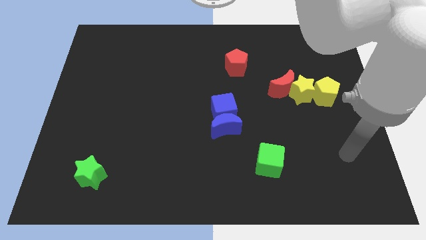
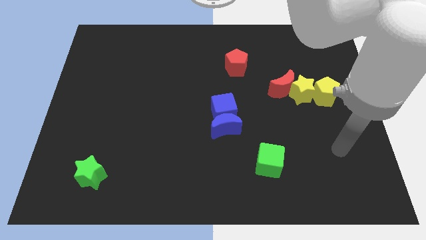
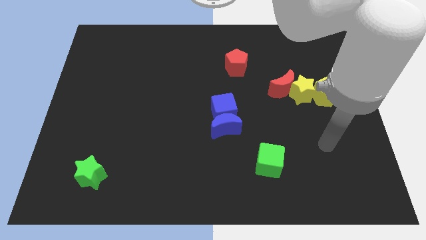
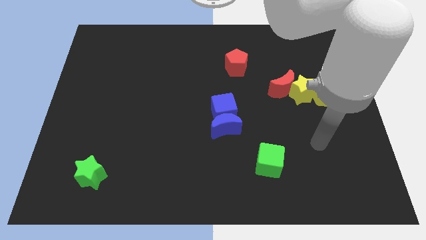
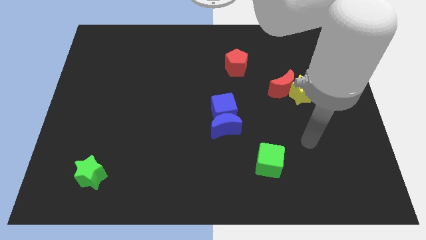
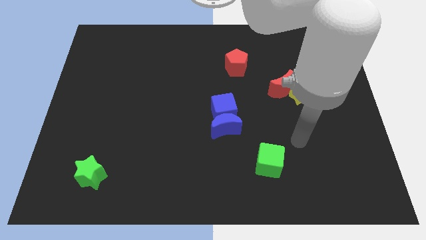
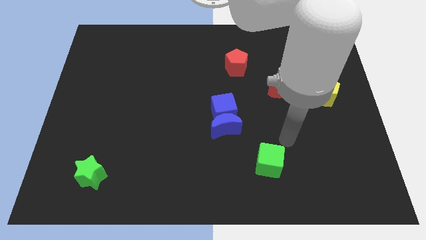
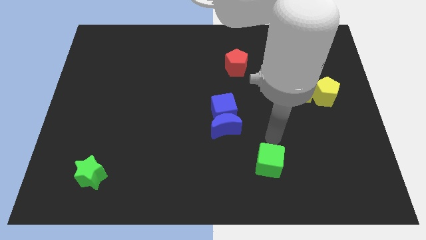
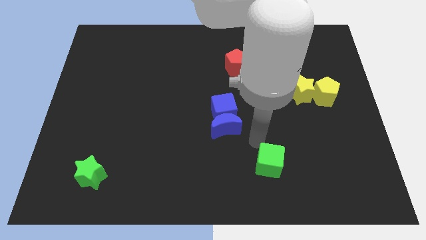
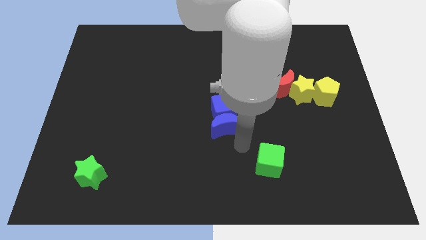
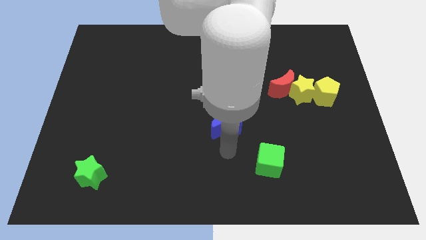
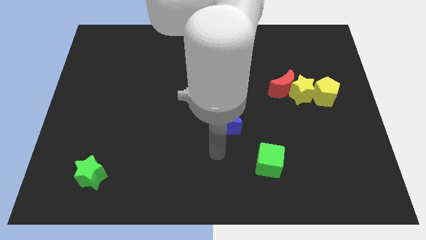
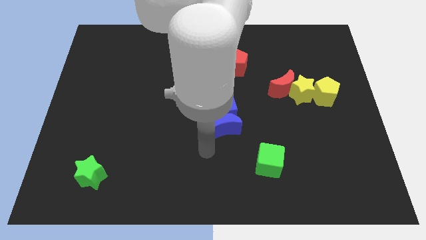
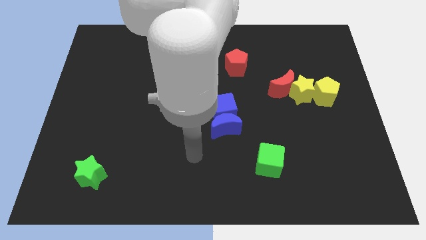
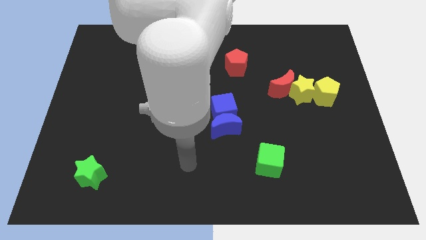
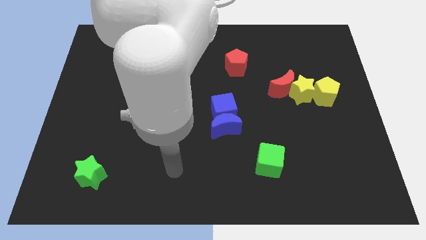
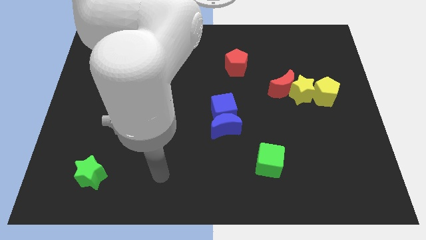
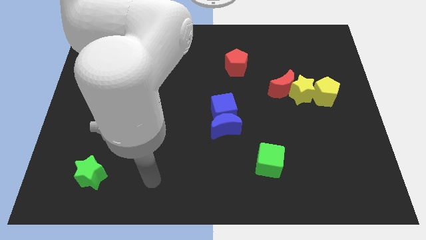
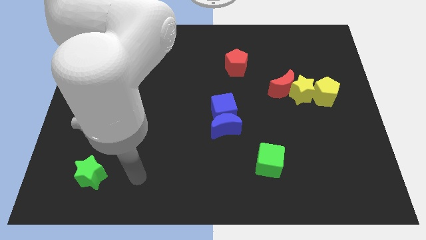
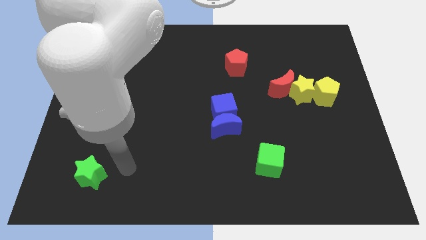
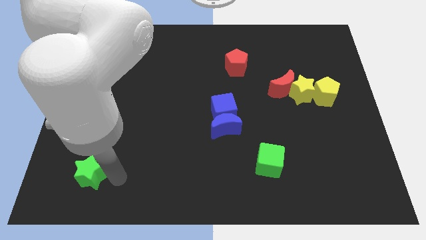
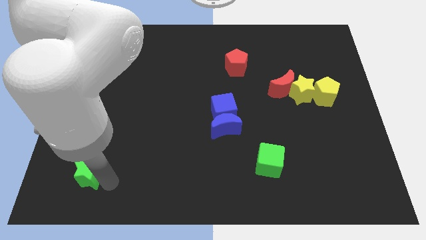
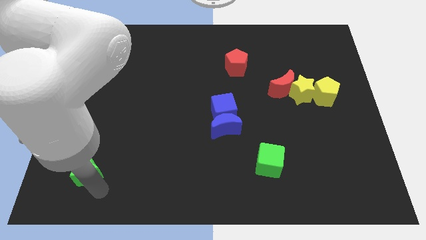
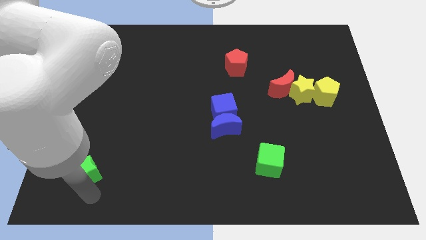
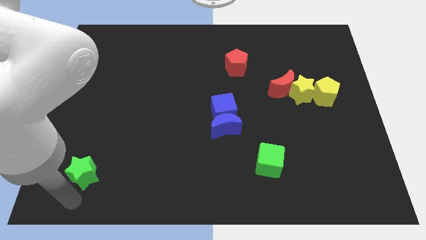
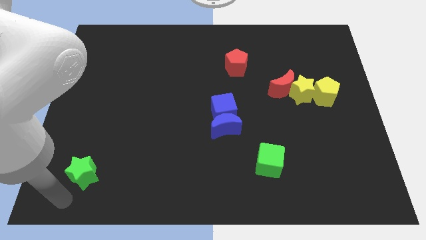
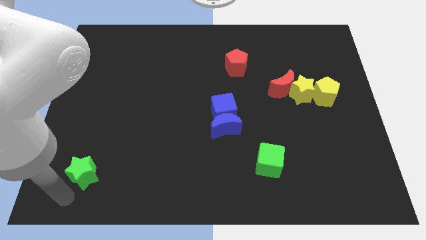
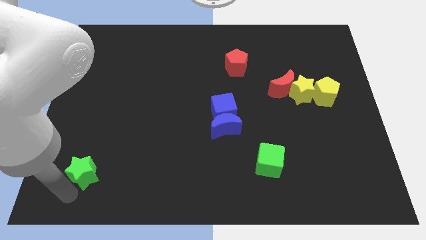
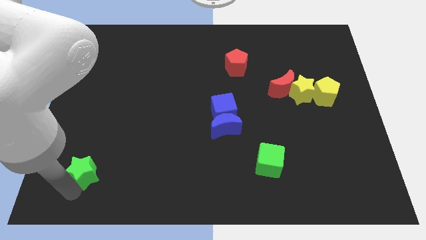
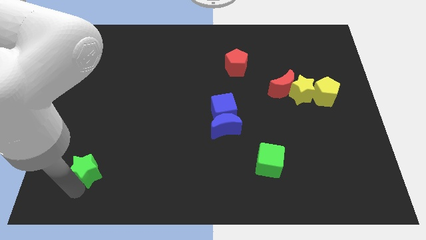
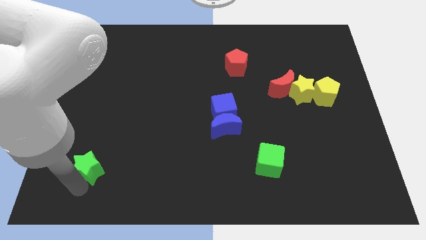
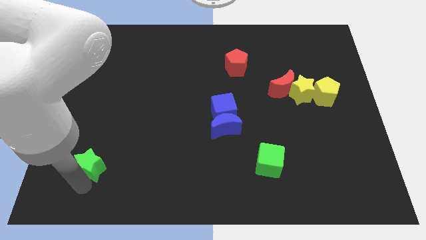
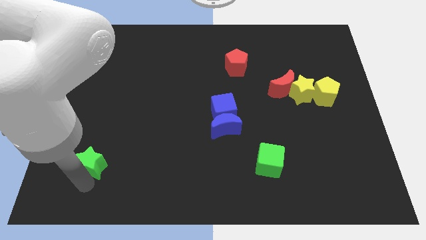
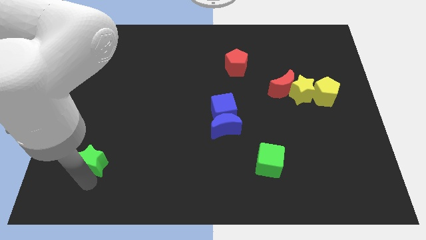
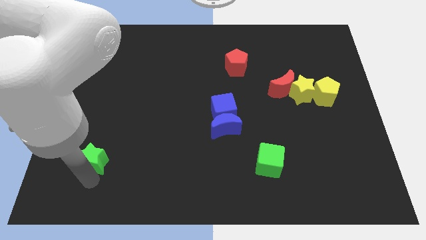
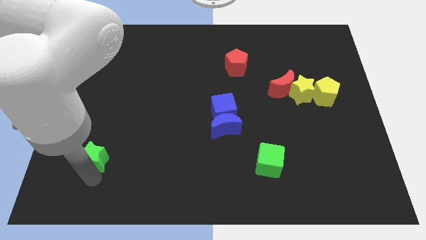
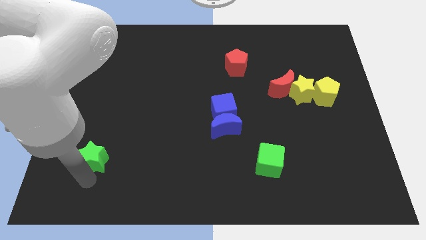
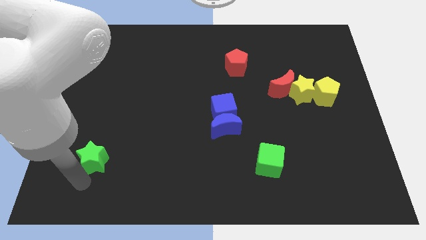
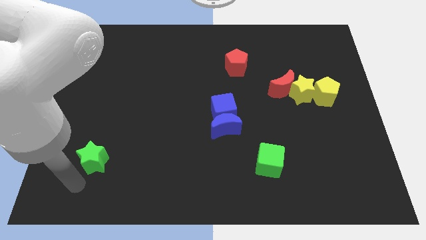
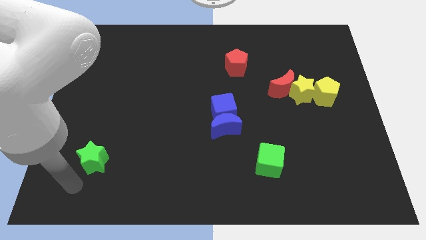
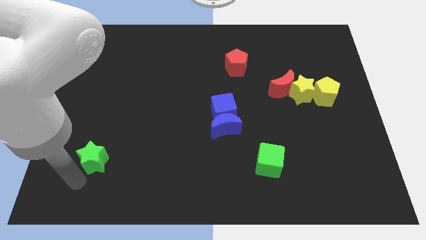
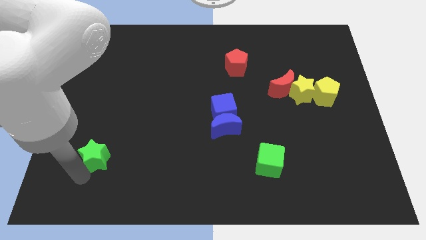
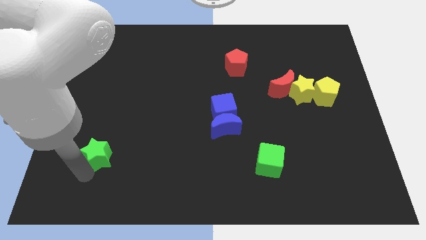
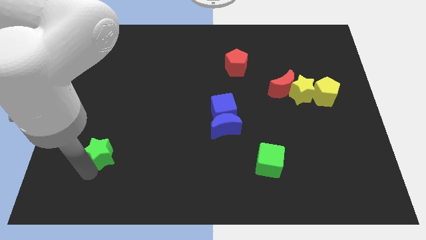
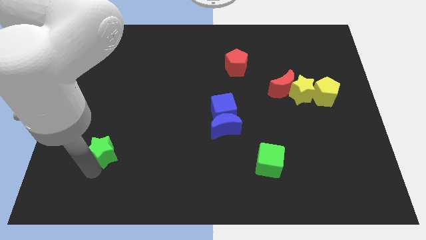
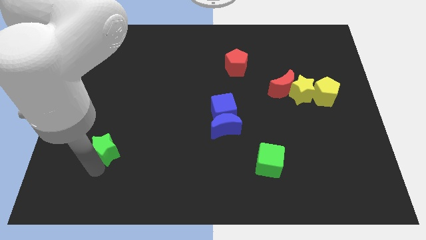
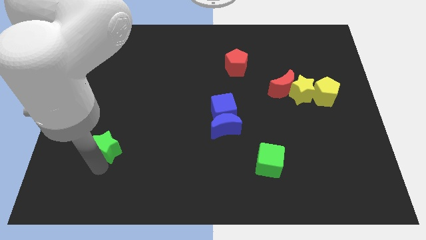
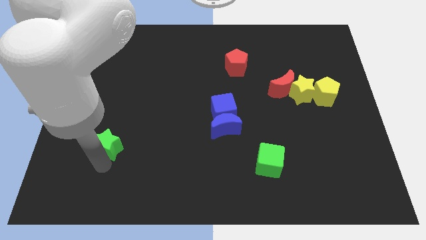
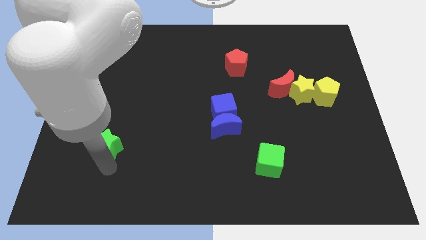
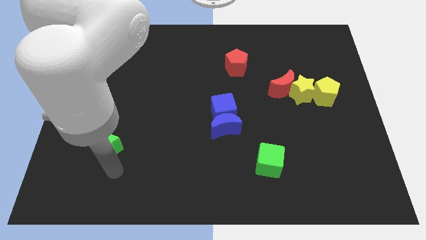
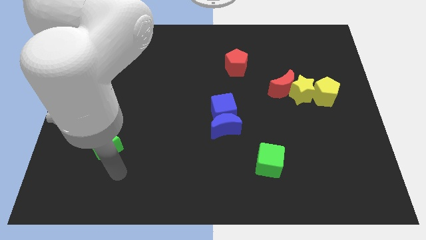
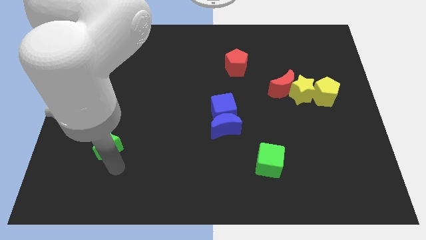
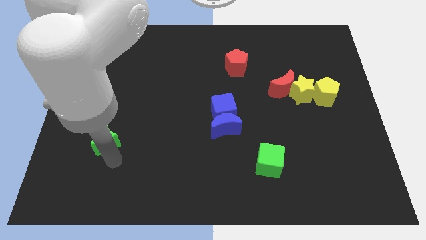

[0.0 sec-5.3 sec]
move the green star upwards a little bit

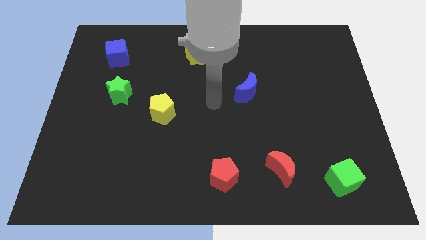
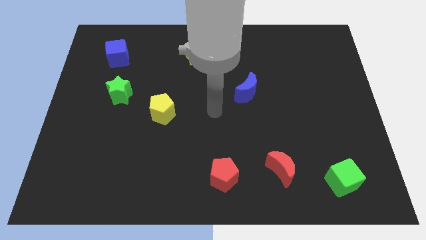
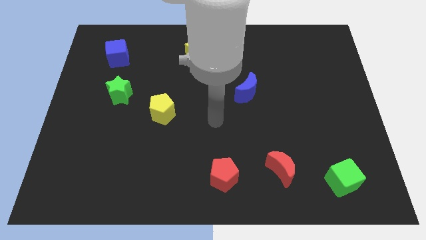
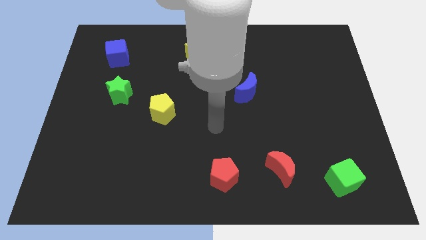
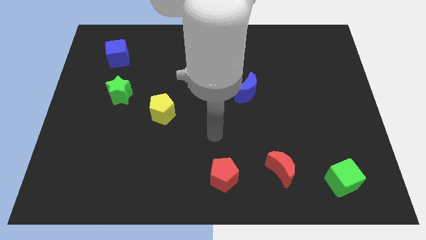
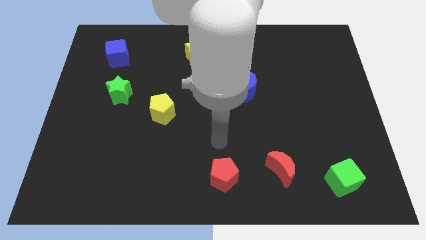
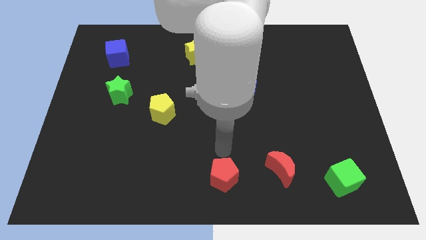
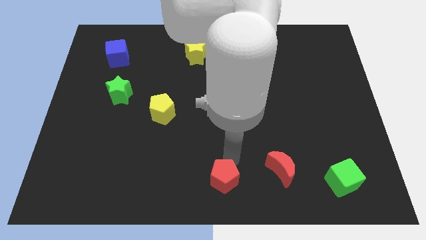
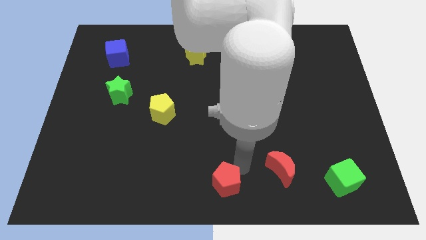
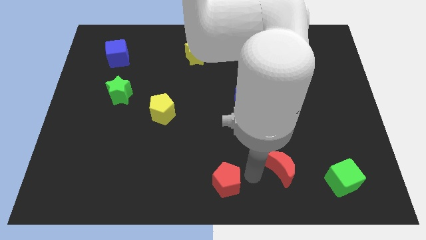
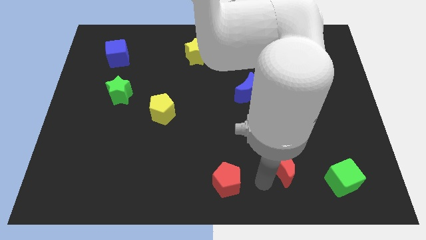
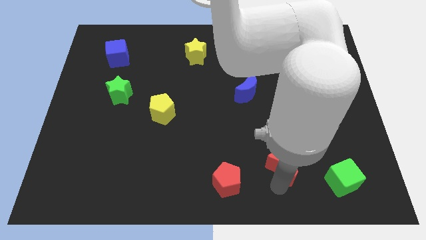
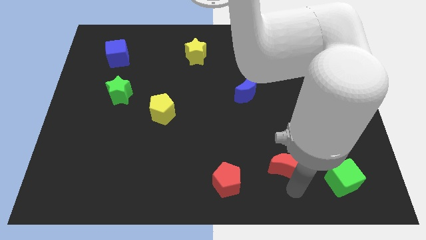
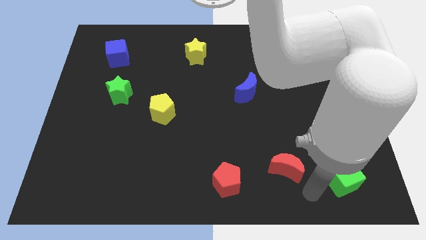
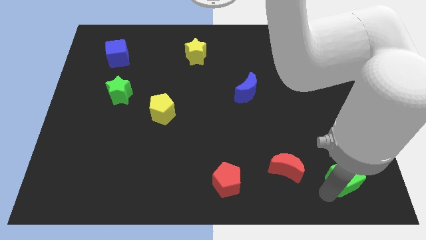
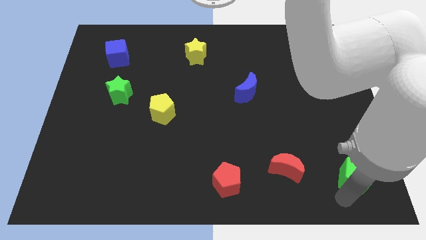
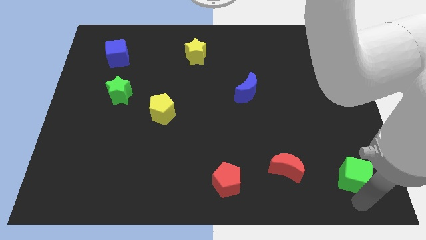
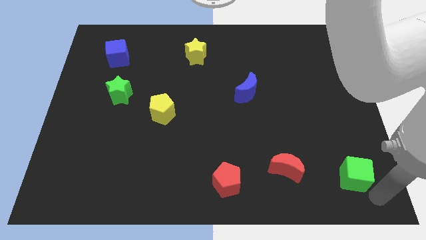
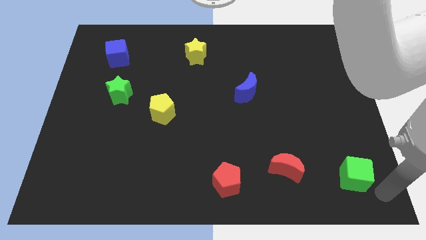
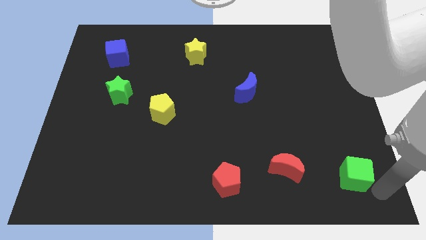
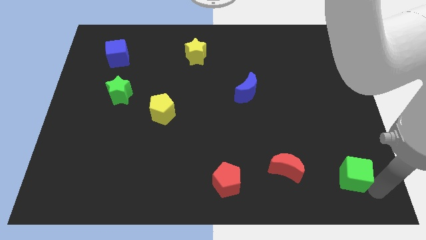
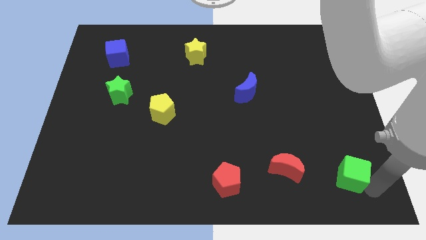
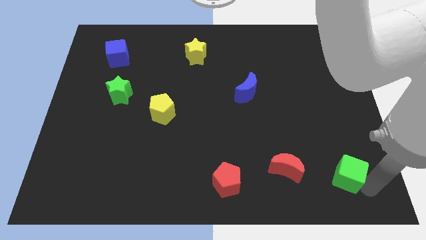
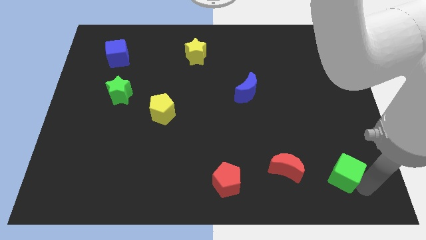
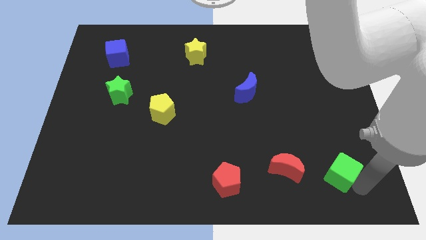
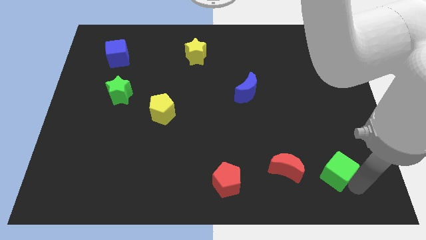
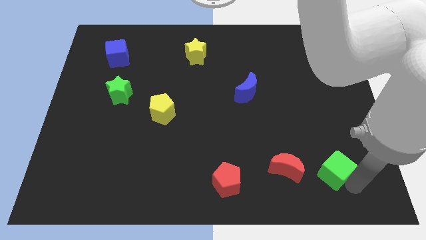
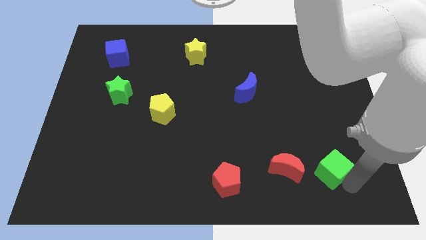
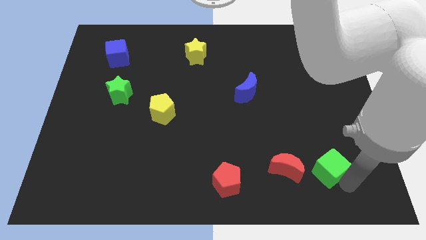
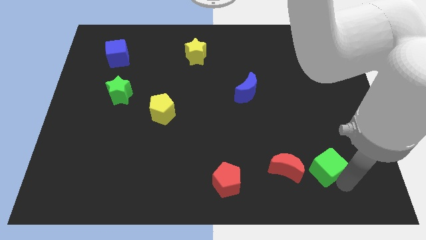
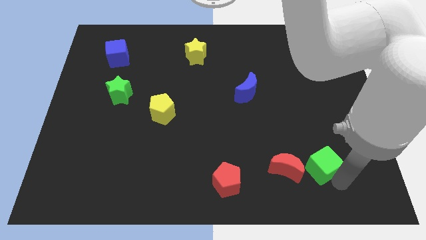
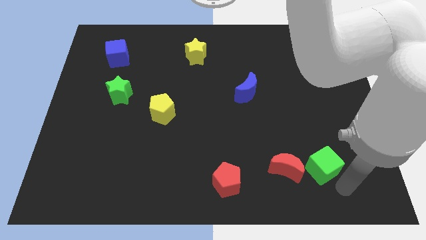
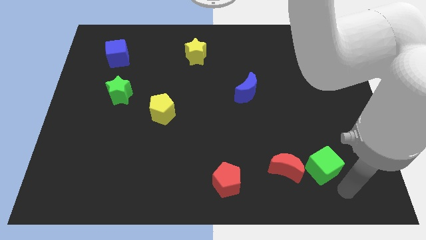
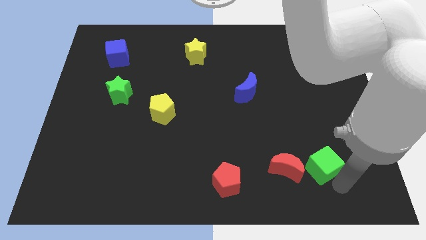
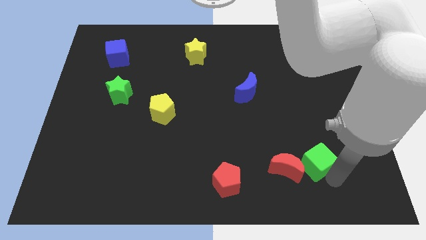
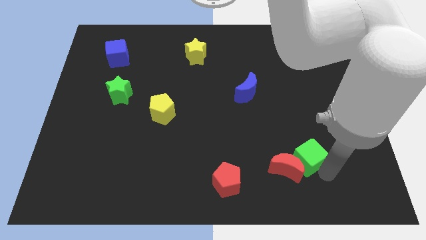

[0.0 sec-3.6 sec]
slightly move the green cube diagonally up and to the left
